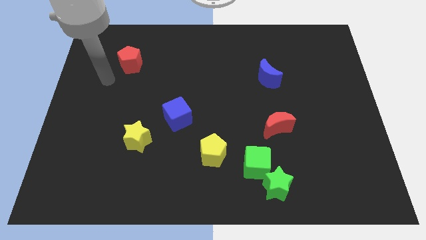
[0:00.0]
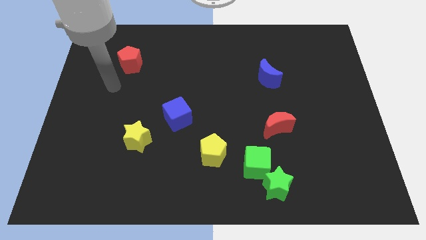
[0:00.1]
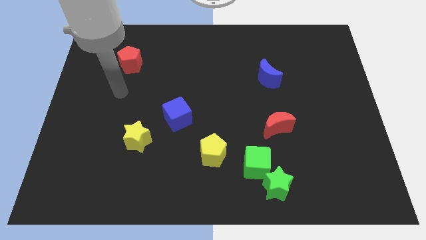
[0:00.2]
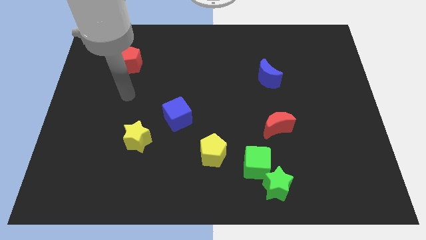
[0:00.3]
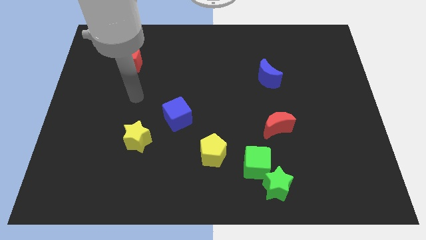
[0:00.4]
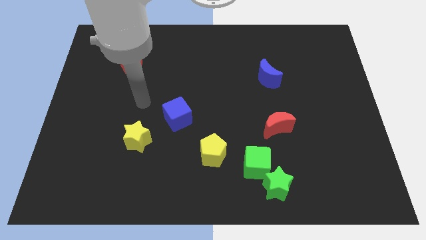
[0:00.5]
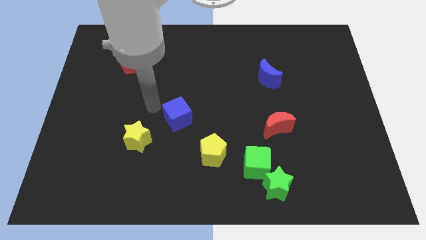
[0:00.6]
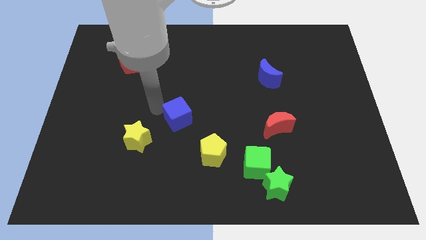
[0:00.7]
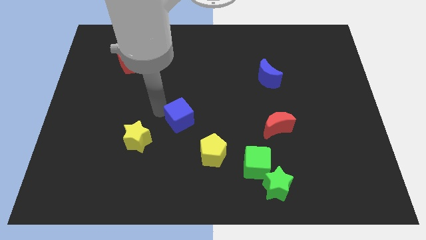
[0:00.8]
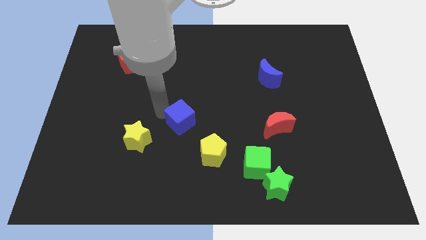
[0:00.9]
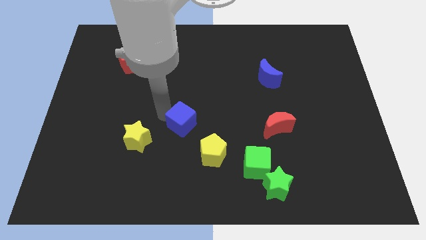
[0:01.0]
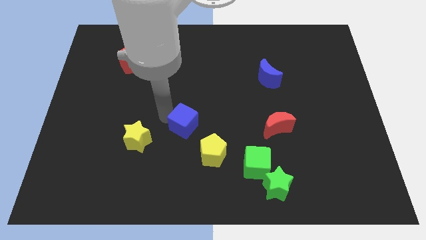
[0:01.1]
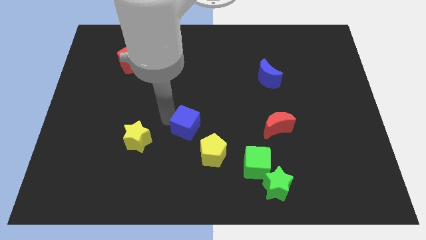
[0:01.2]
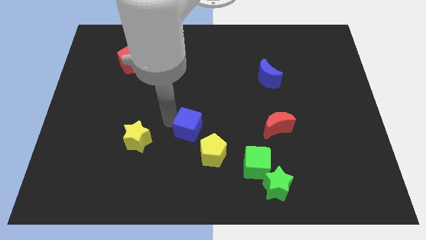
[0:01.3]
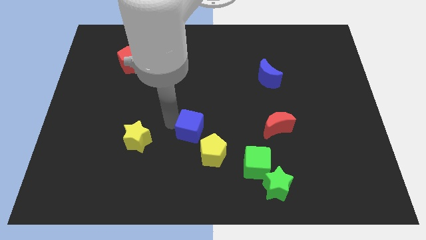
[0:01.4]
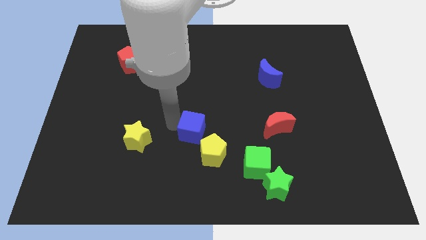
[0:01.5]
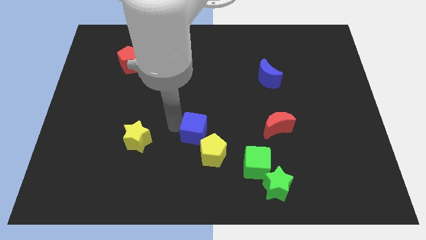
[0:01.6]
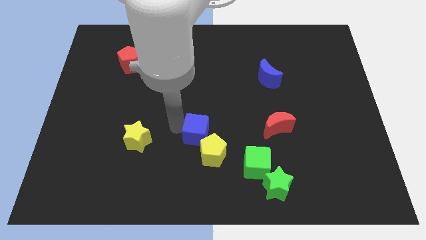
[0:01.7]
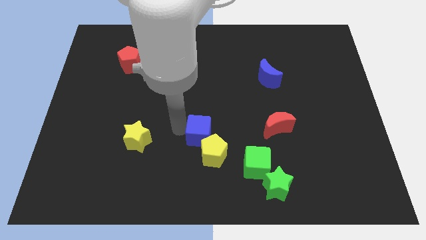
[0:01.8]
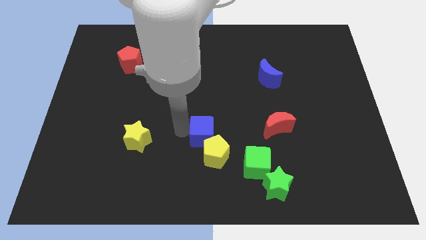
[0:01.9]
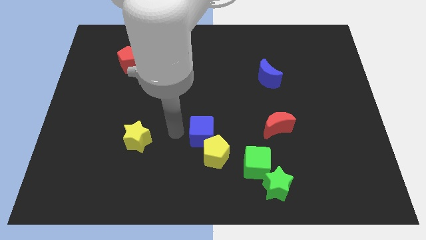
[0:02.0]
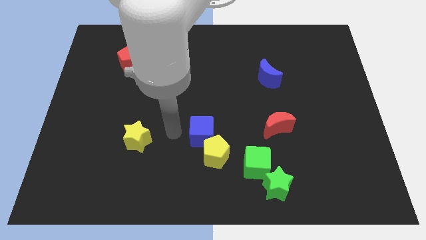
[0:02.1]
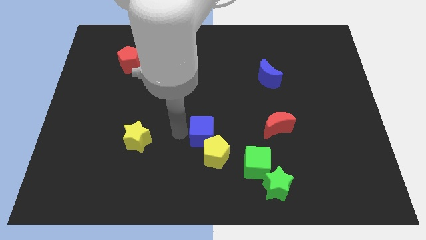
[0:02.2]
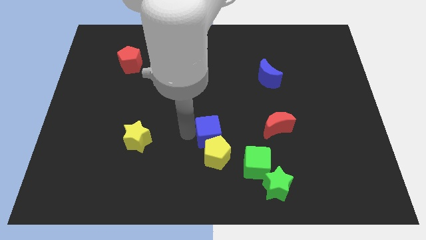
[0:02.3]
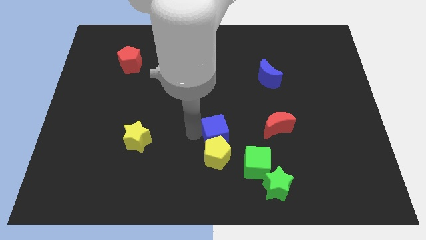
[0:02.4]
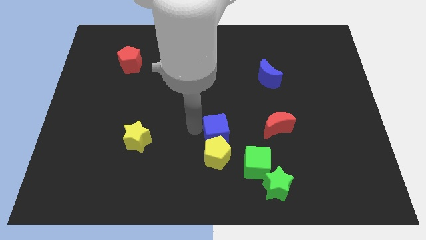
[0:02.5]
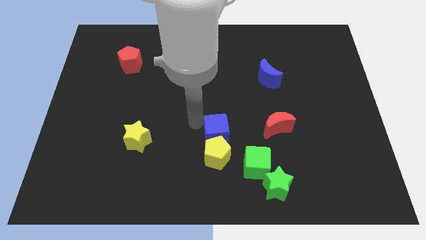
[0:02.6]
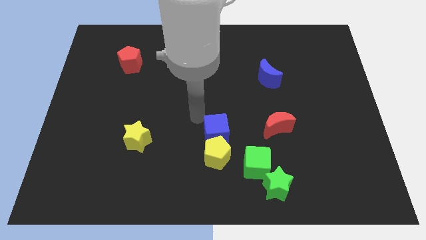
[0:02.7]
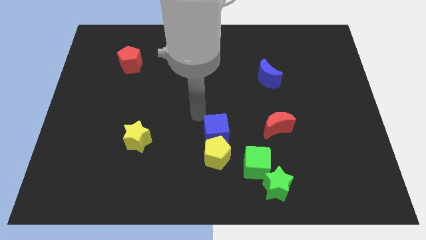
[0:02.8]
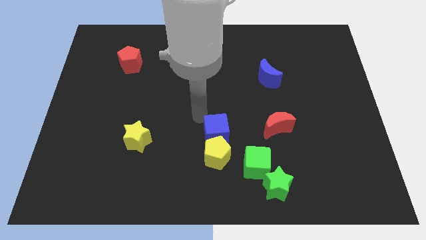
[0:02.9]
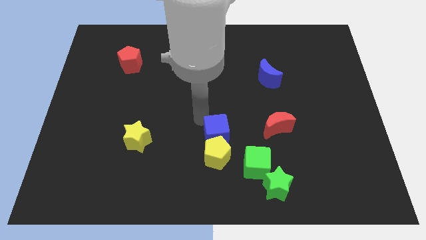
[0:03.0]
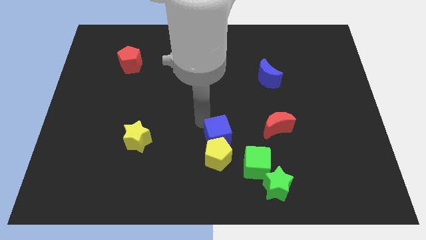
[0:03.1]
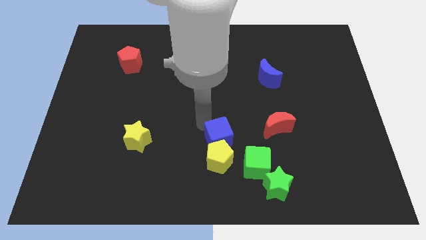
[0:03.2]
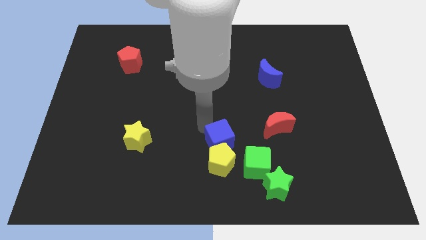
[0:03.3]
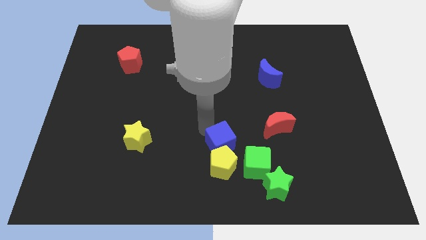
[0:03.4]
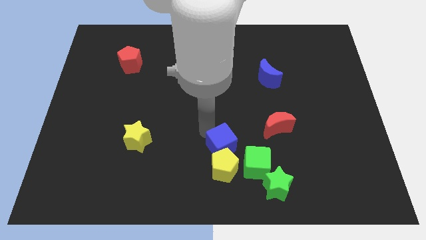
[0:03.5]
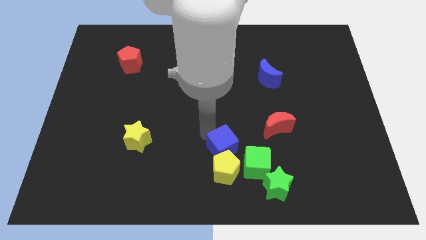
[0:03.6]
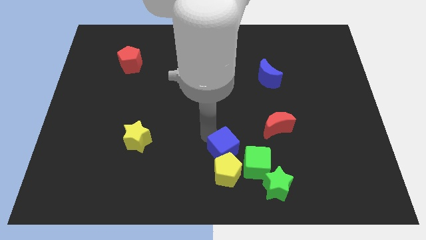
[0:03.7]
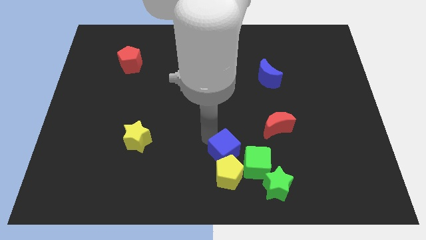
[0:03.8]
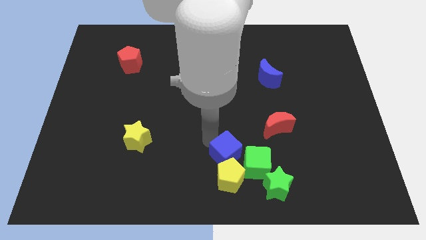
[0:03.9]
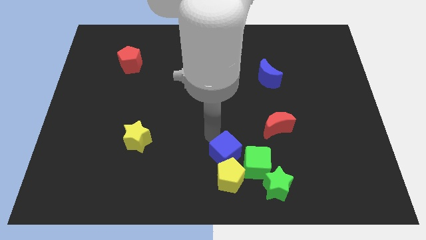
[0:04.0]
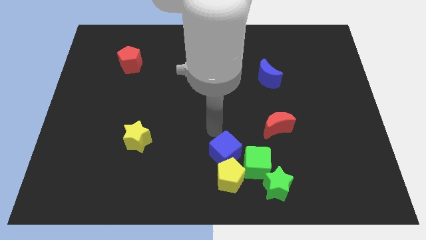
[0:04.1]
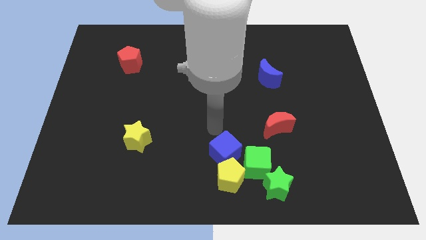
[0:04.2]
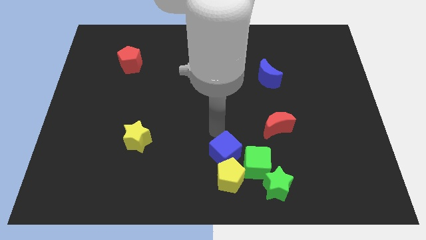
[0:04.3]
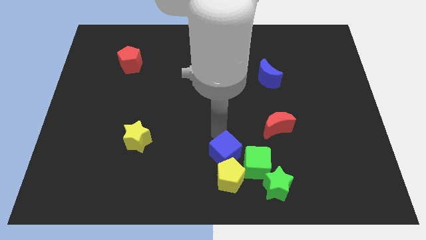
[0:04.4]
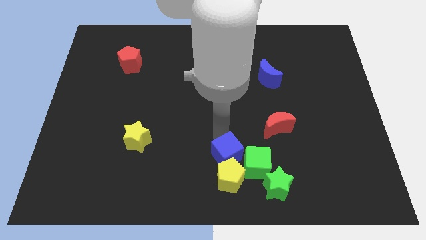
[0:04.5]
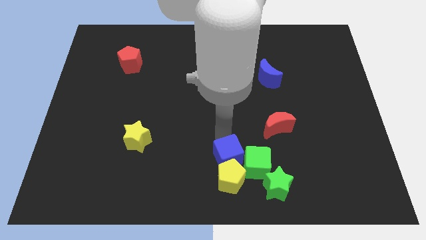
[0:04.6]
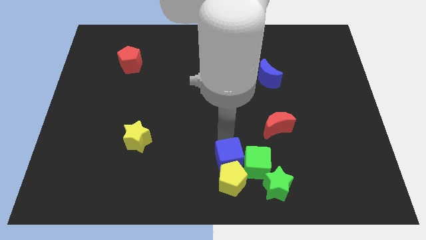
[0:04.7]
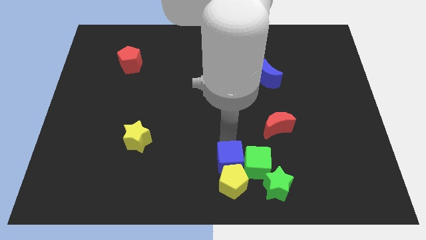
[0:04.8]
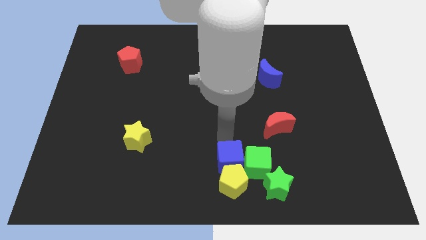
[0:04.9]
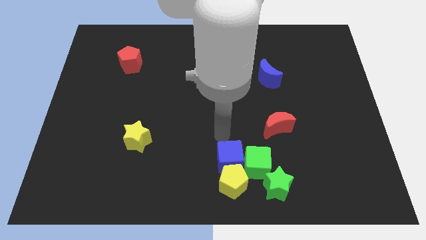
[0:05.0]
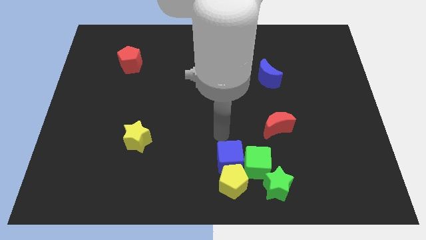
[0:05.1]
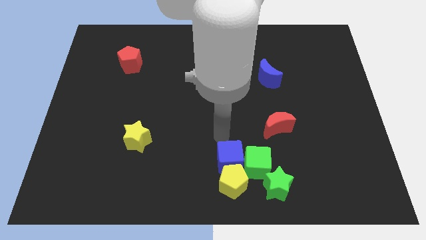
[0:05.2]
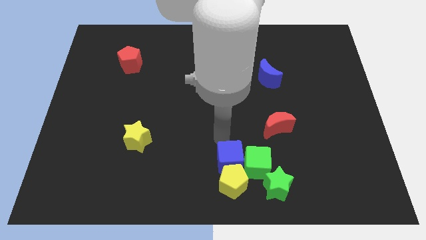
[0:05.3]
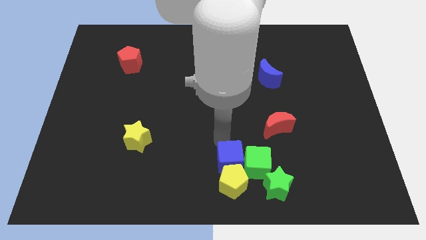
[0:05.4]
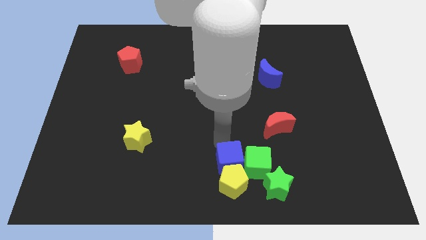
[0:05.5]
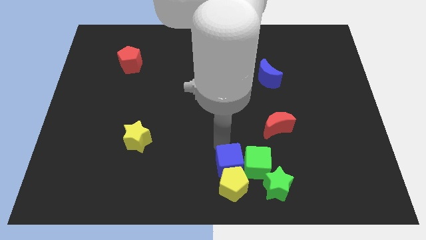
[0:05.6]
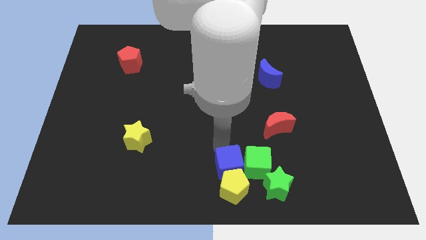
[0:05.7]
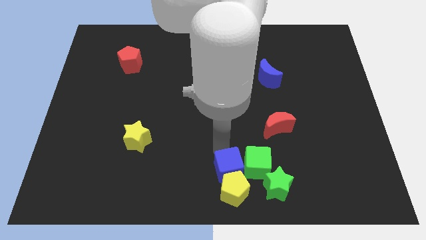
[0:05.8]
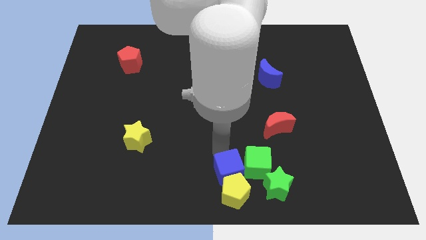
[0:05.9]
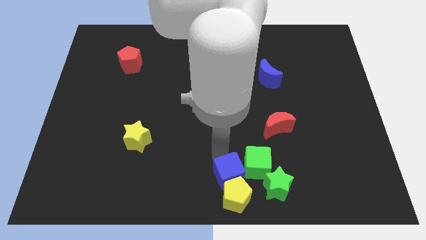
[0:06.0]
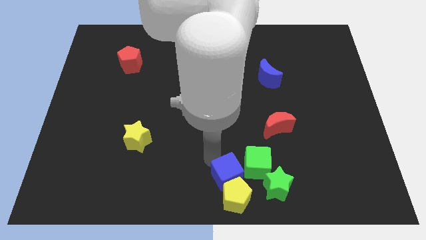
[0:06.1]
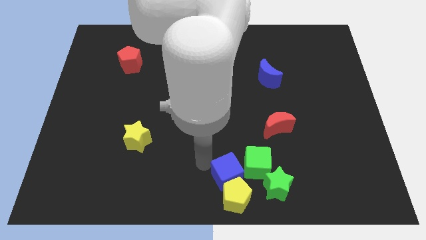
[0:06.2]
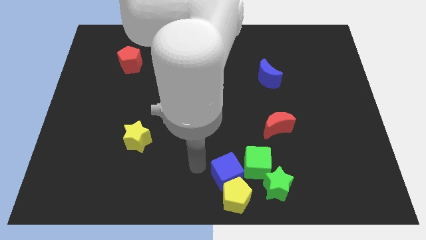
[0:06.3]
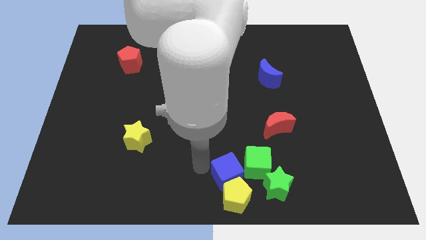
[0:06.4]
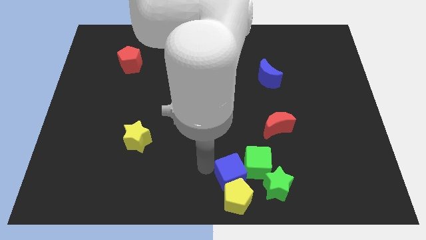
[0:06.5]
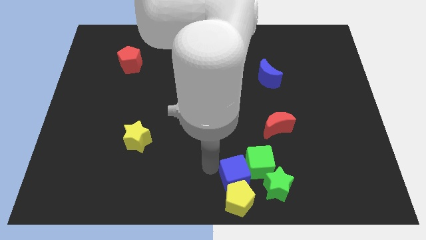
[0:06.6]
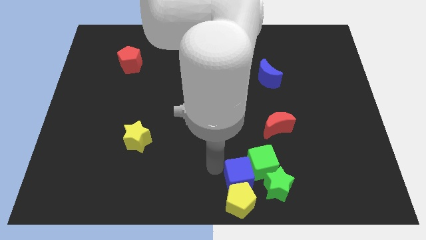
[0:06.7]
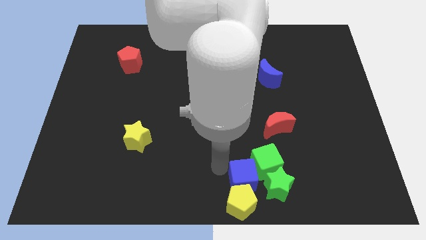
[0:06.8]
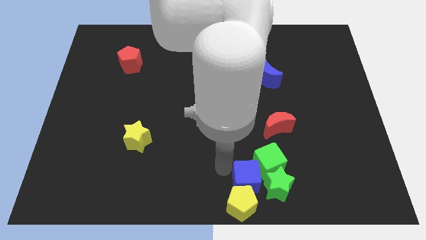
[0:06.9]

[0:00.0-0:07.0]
move the blue cube towards the green star
